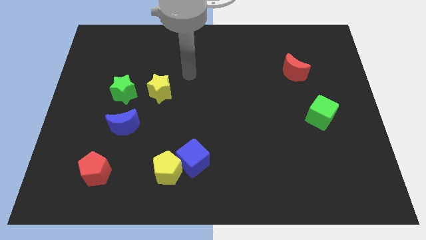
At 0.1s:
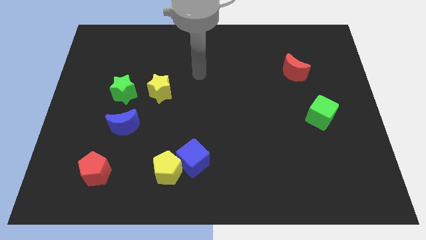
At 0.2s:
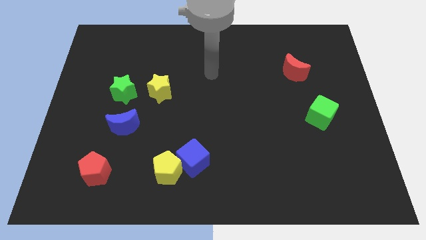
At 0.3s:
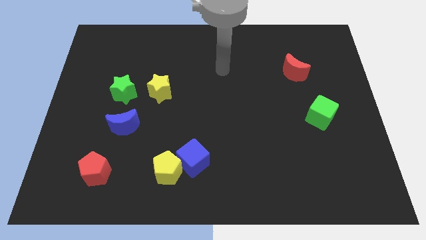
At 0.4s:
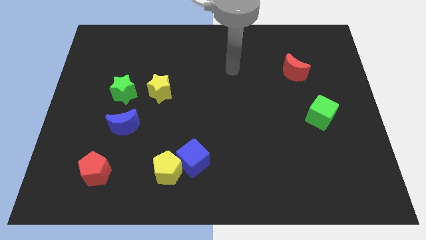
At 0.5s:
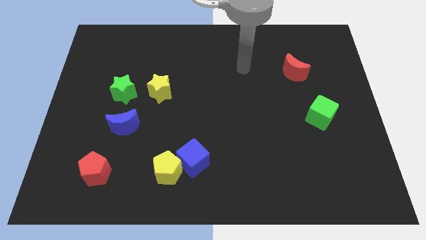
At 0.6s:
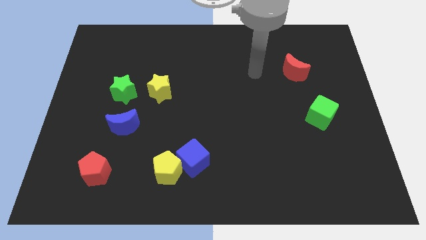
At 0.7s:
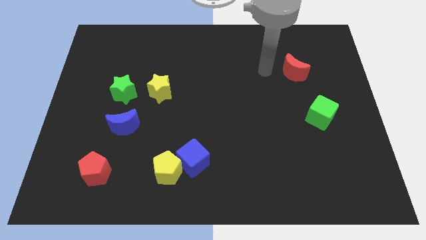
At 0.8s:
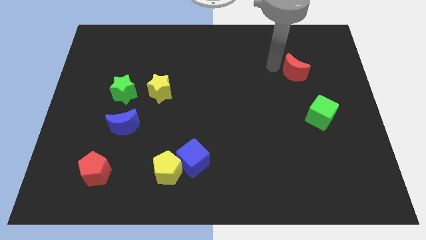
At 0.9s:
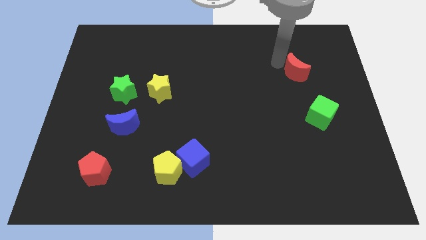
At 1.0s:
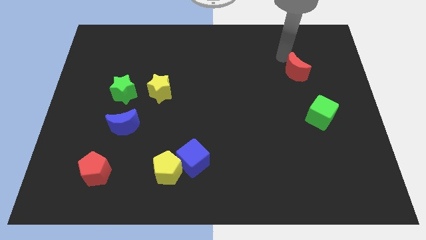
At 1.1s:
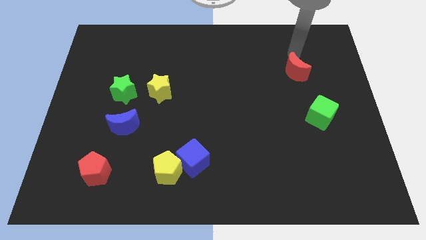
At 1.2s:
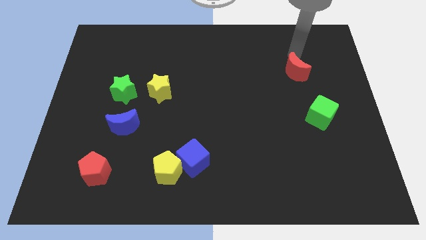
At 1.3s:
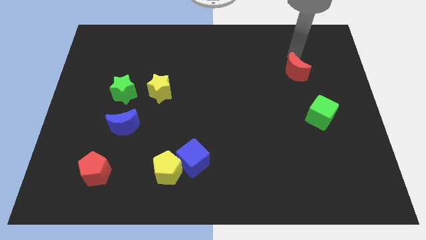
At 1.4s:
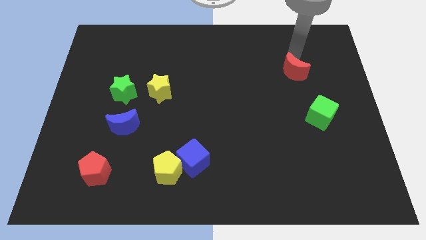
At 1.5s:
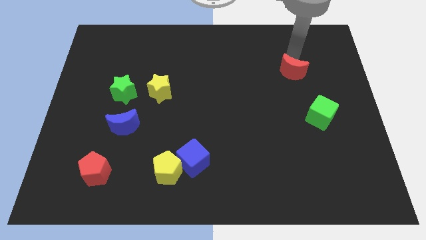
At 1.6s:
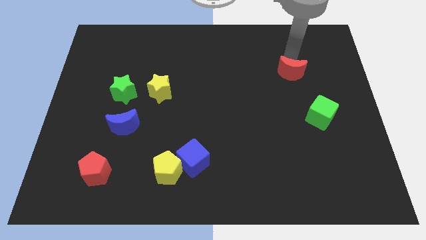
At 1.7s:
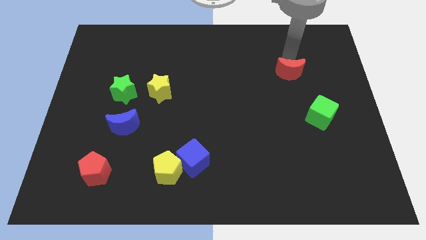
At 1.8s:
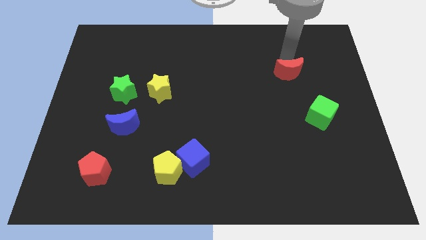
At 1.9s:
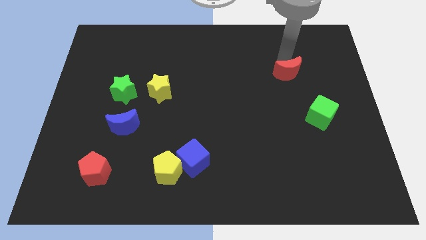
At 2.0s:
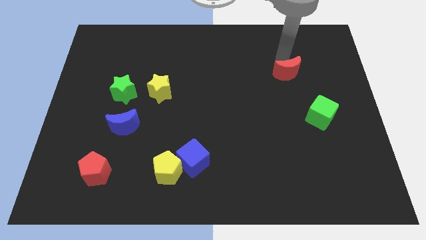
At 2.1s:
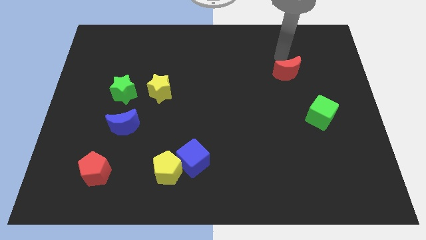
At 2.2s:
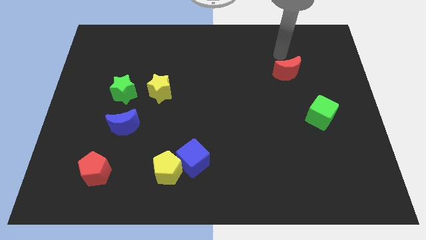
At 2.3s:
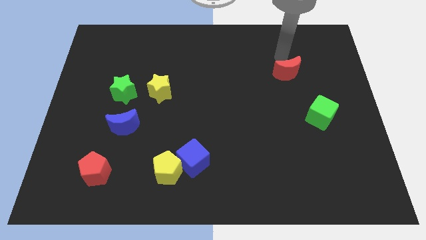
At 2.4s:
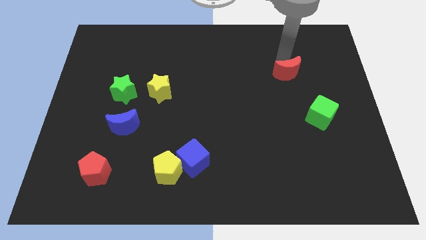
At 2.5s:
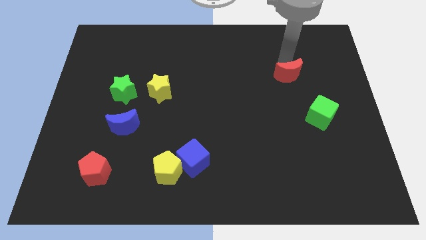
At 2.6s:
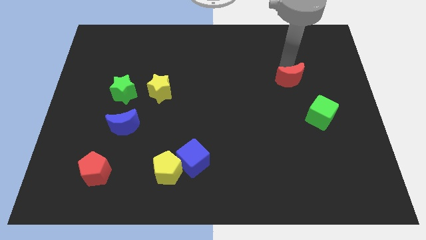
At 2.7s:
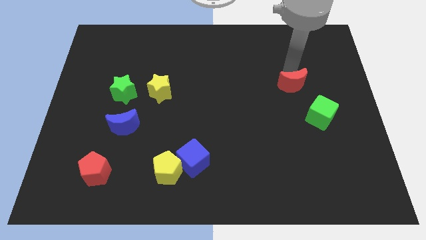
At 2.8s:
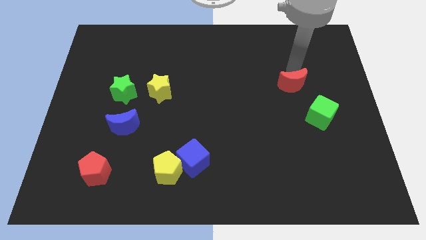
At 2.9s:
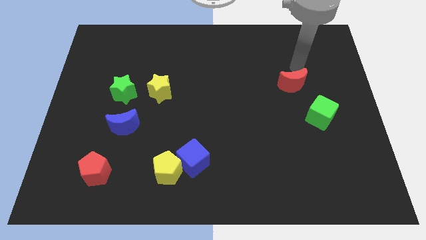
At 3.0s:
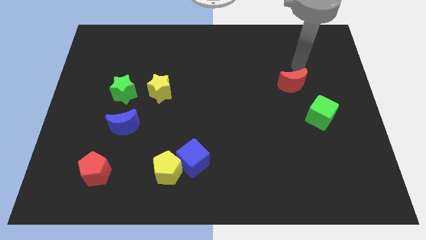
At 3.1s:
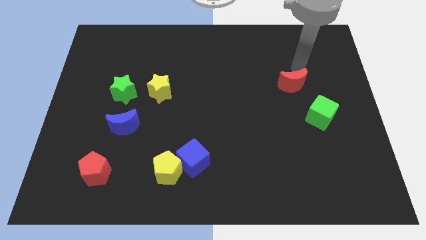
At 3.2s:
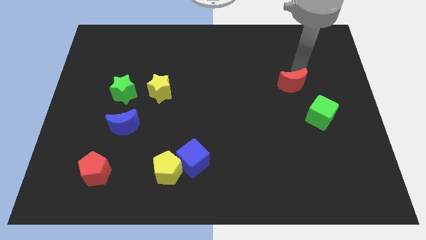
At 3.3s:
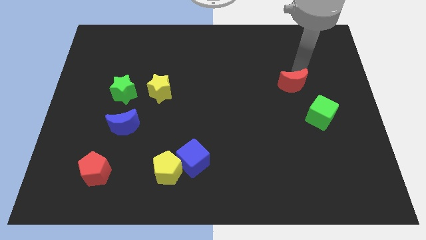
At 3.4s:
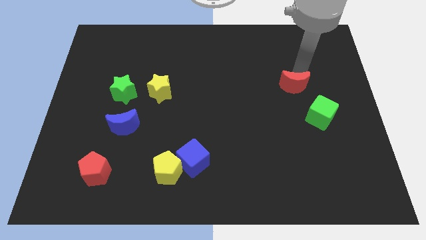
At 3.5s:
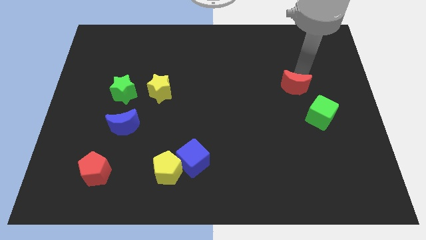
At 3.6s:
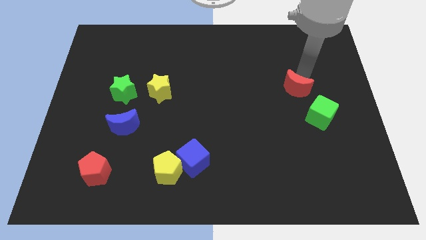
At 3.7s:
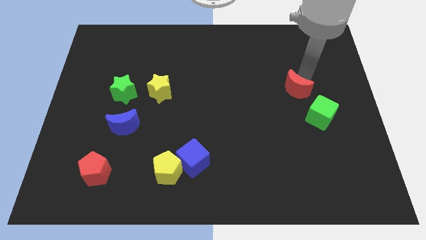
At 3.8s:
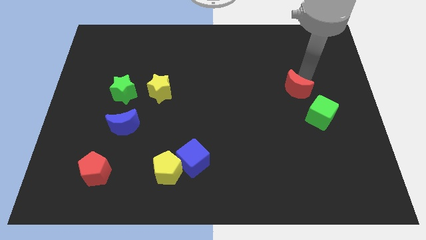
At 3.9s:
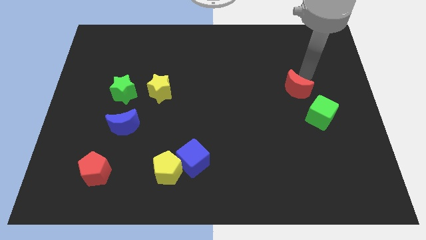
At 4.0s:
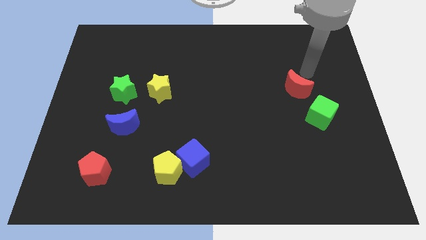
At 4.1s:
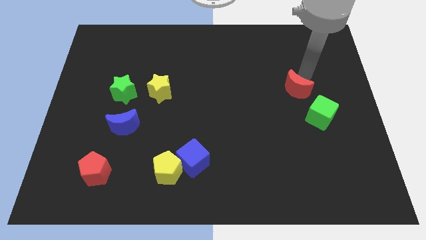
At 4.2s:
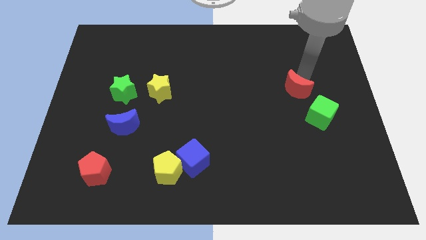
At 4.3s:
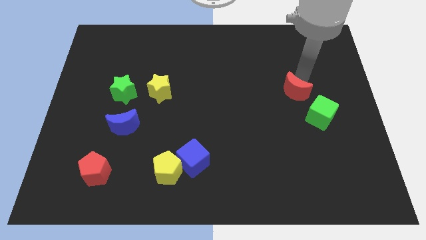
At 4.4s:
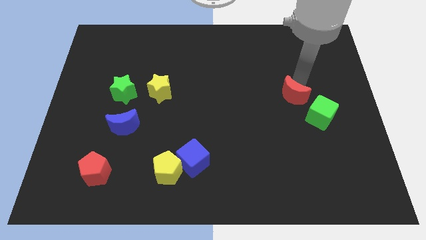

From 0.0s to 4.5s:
move the red moon a little bit downwards

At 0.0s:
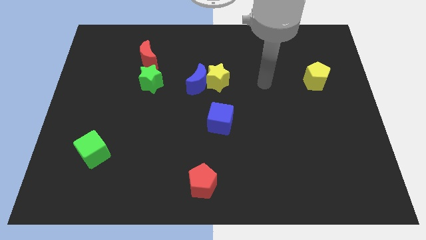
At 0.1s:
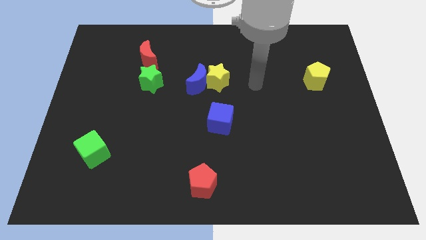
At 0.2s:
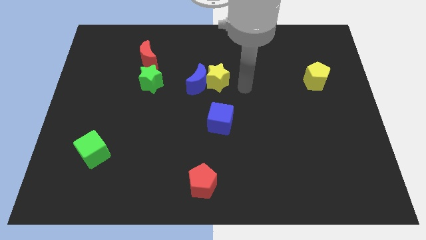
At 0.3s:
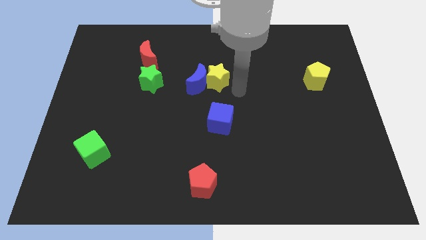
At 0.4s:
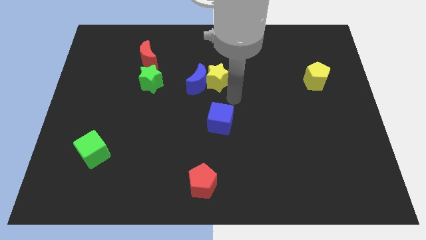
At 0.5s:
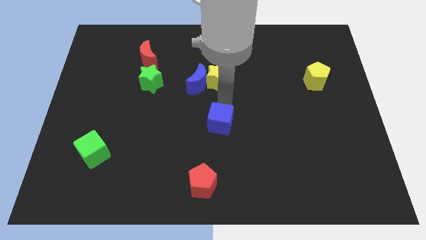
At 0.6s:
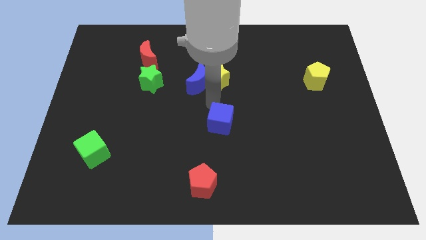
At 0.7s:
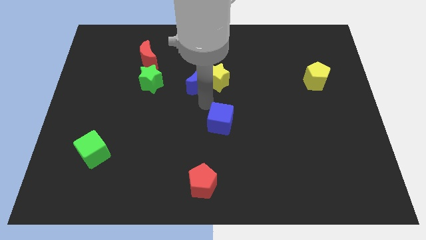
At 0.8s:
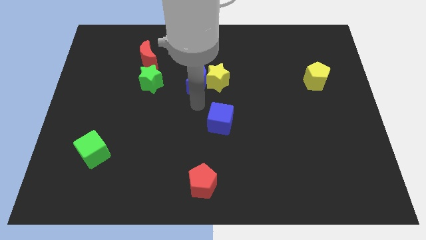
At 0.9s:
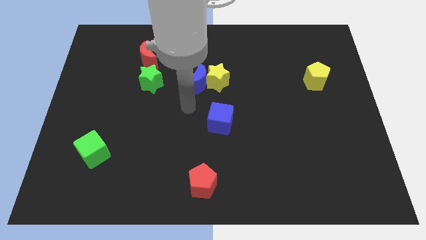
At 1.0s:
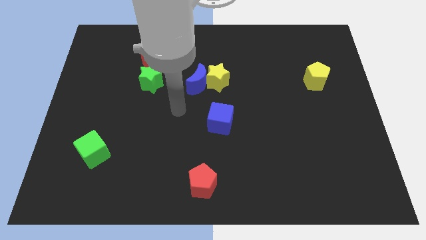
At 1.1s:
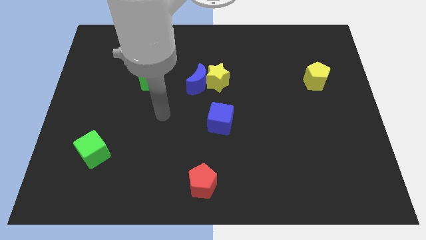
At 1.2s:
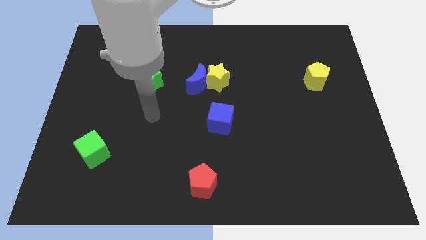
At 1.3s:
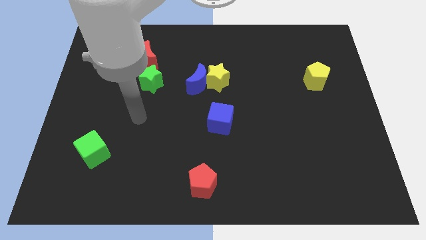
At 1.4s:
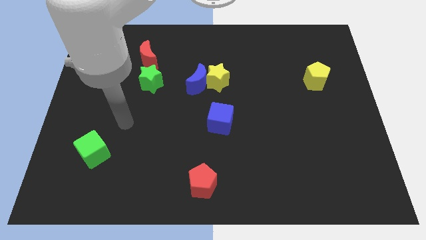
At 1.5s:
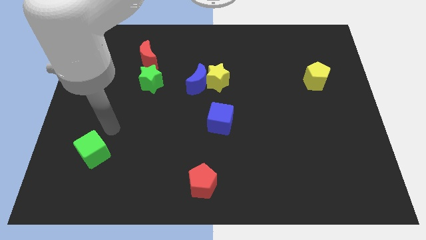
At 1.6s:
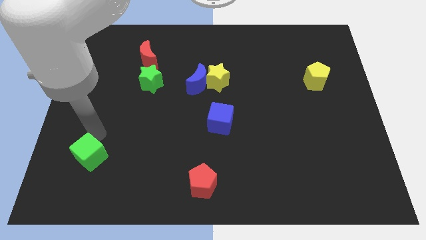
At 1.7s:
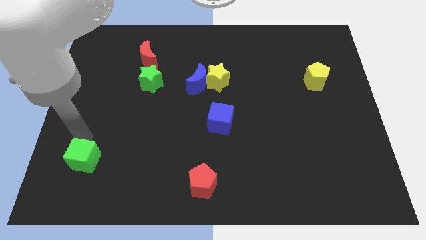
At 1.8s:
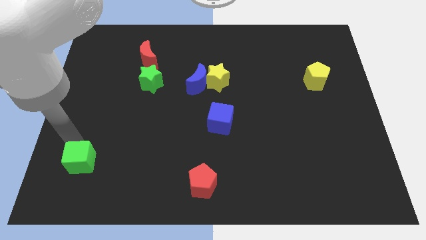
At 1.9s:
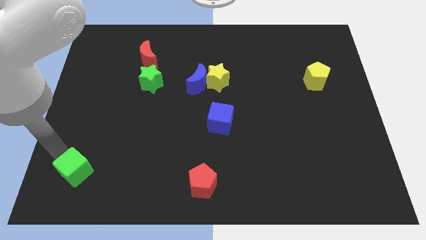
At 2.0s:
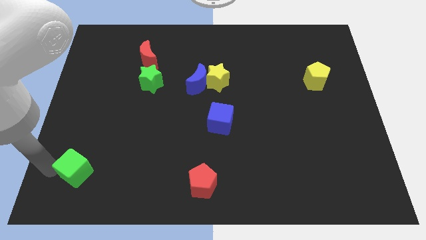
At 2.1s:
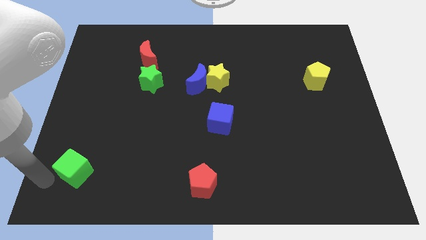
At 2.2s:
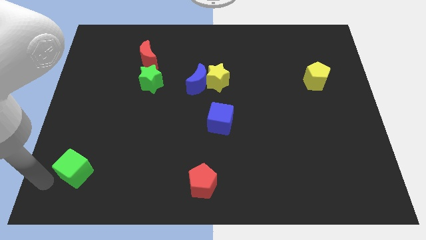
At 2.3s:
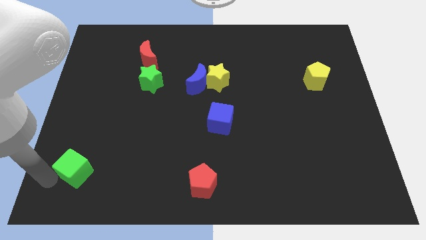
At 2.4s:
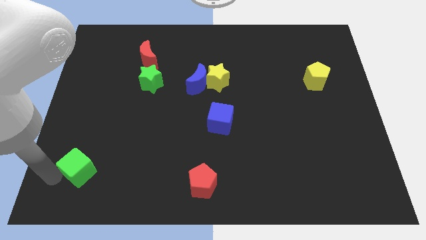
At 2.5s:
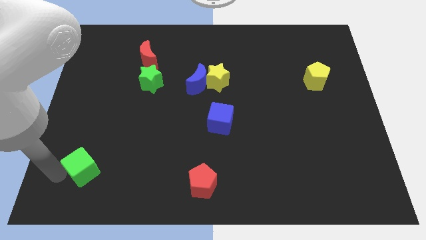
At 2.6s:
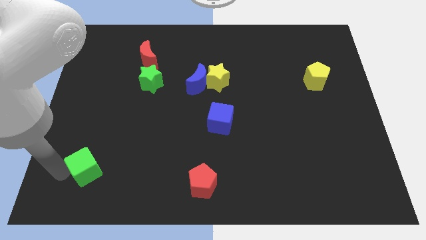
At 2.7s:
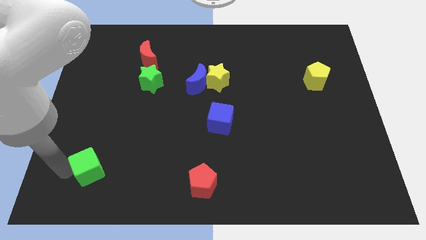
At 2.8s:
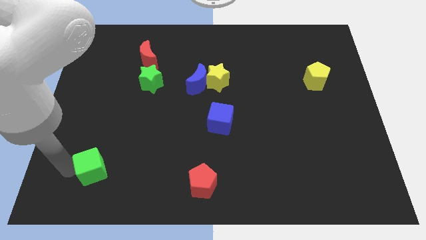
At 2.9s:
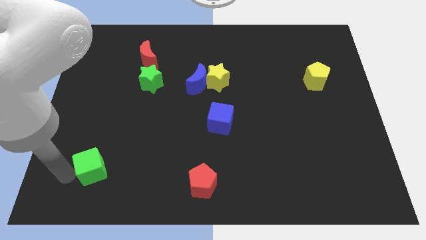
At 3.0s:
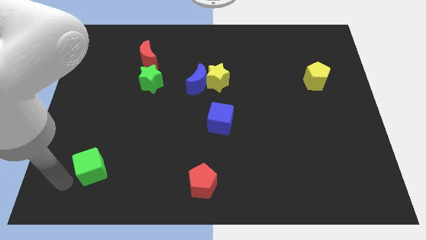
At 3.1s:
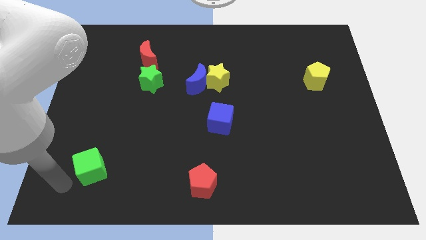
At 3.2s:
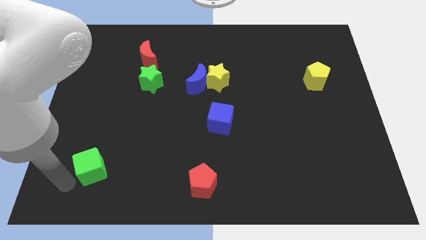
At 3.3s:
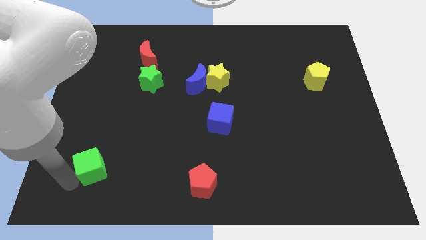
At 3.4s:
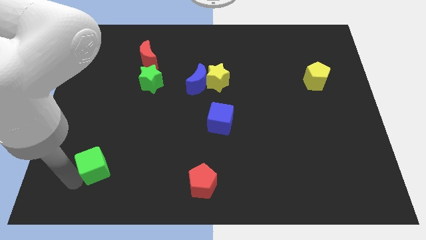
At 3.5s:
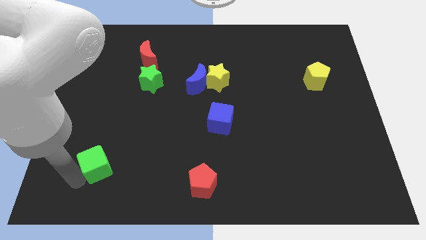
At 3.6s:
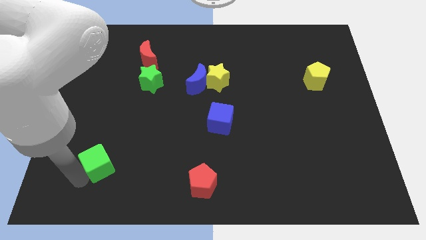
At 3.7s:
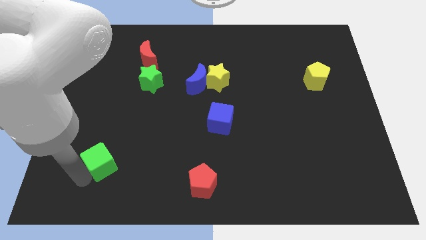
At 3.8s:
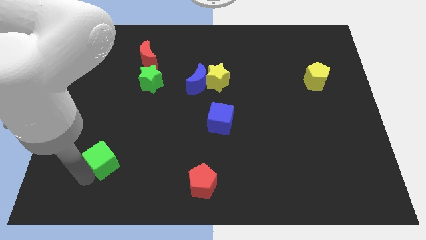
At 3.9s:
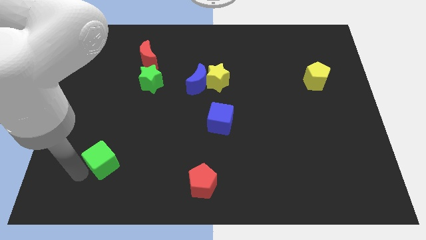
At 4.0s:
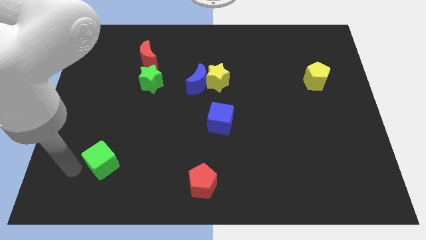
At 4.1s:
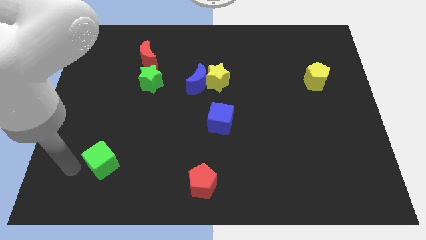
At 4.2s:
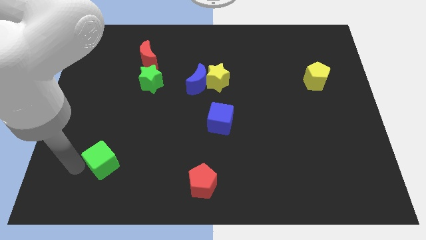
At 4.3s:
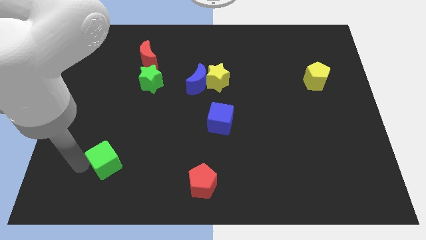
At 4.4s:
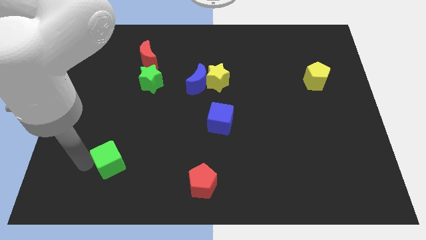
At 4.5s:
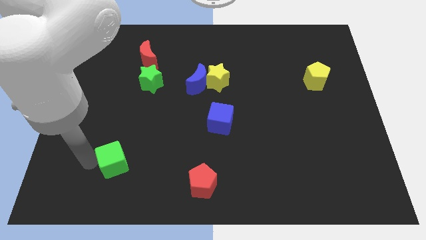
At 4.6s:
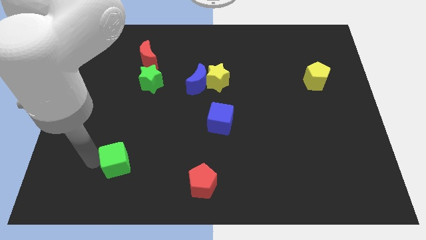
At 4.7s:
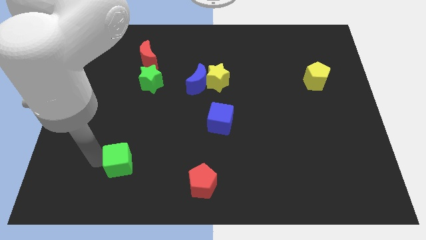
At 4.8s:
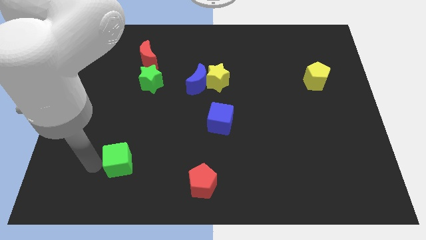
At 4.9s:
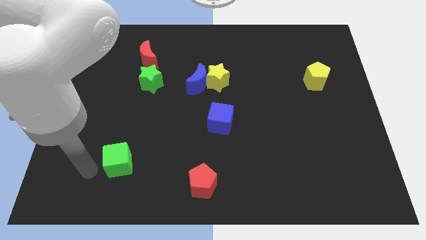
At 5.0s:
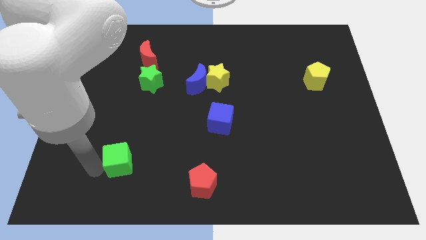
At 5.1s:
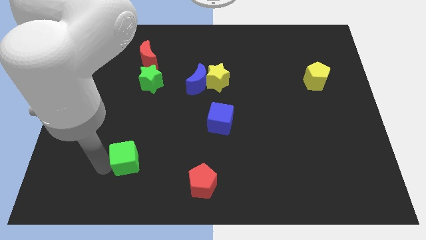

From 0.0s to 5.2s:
slightly slide the green cube to the right
